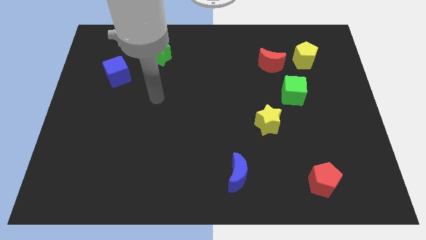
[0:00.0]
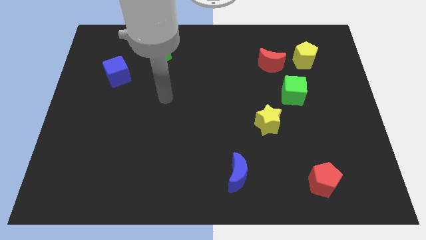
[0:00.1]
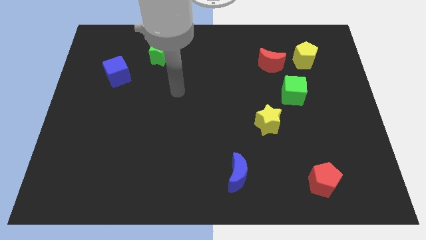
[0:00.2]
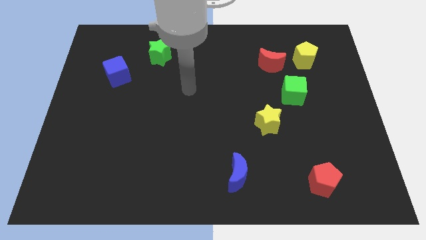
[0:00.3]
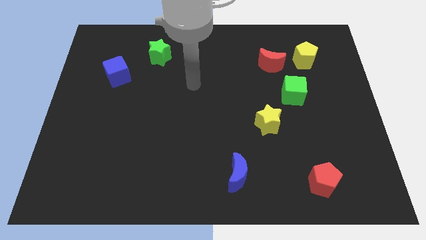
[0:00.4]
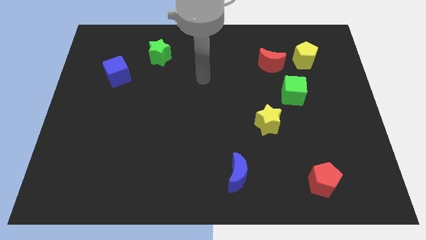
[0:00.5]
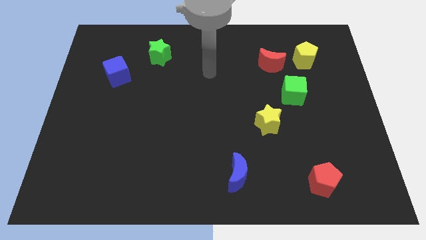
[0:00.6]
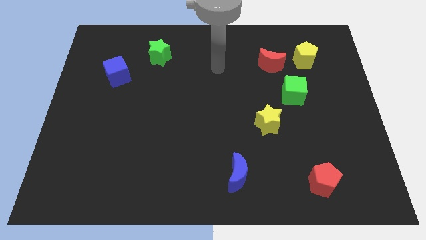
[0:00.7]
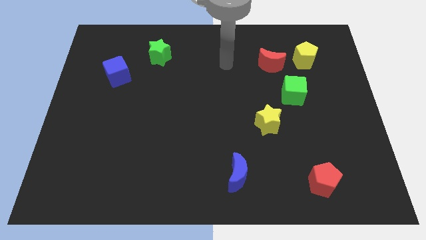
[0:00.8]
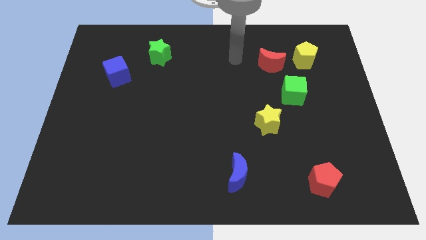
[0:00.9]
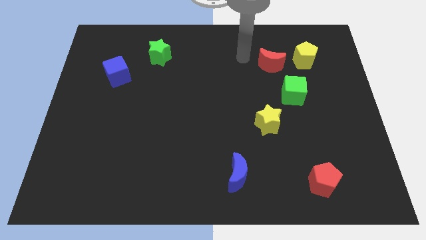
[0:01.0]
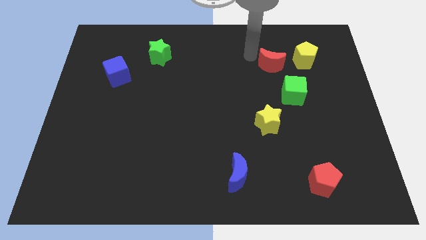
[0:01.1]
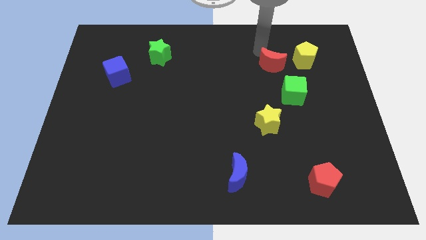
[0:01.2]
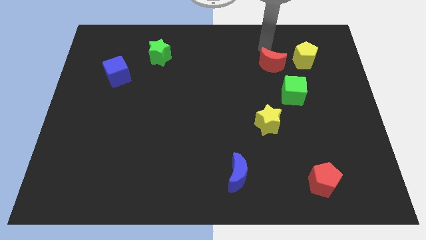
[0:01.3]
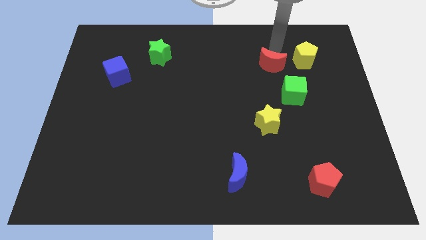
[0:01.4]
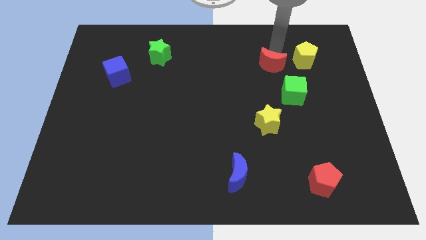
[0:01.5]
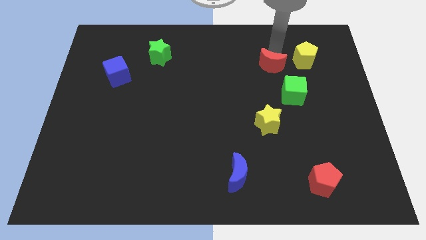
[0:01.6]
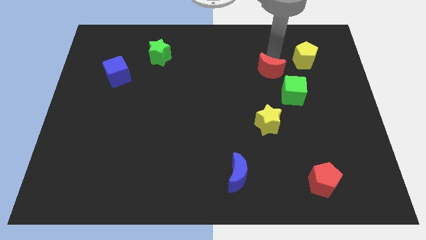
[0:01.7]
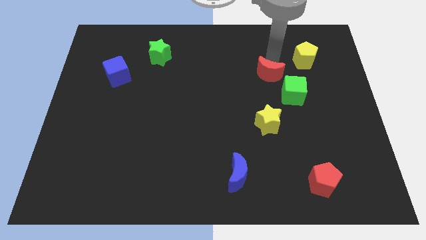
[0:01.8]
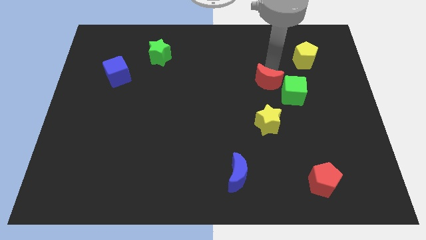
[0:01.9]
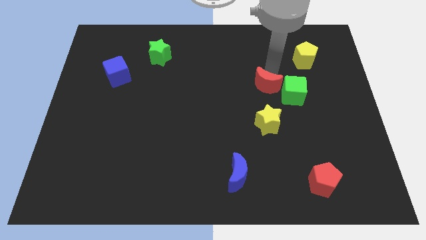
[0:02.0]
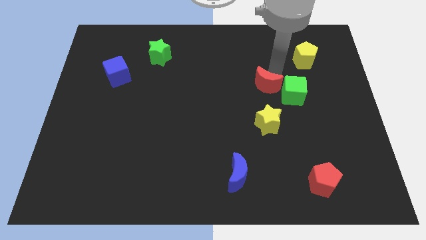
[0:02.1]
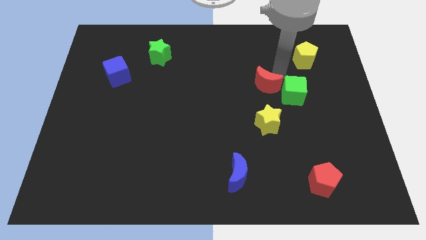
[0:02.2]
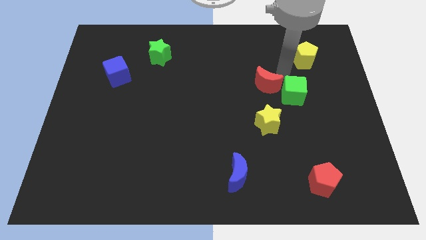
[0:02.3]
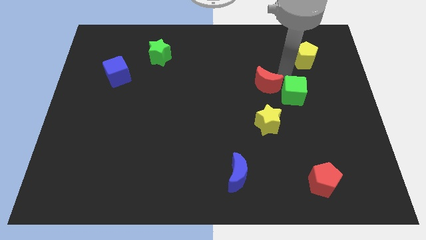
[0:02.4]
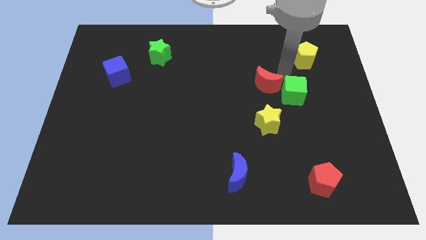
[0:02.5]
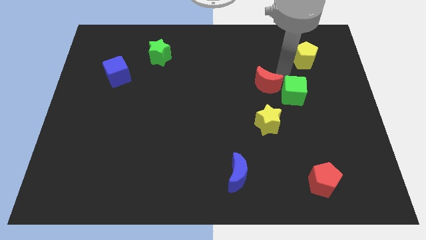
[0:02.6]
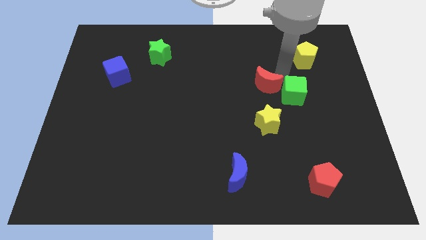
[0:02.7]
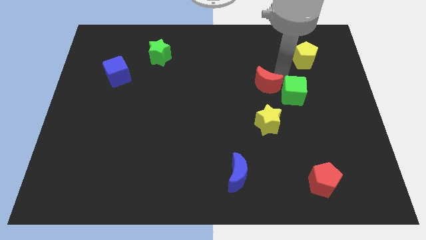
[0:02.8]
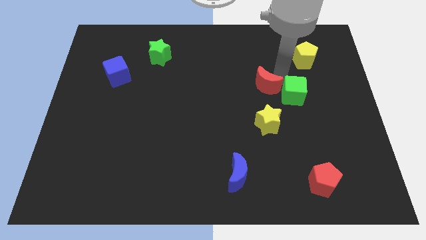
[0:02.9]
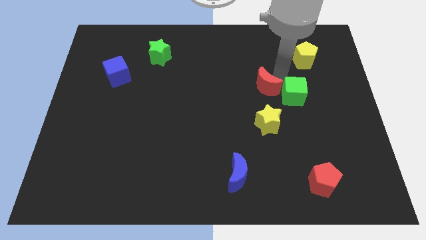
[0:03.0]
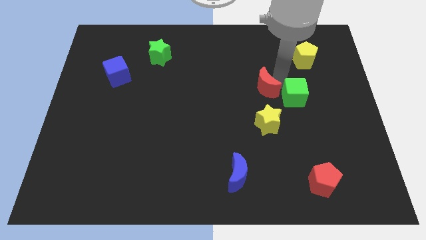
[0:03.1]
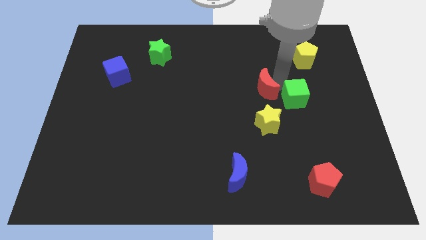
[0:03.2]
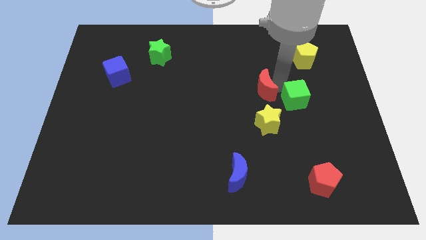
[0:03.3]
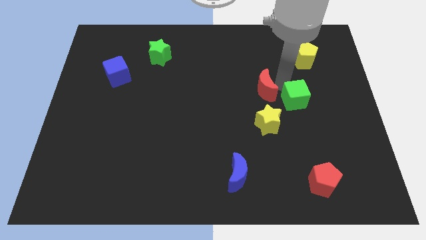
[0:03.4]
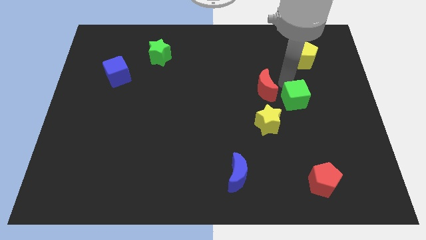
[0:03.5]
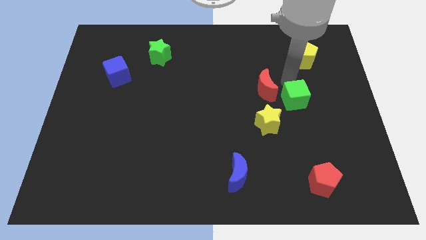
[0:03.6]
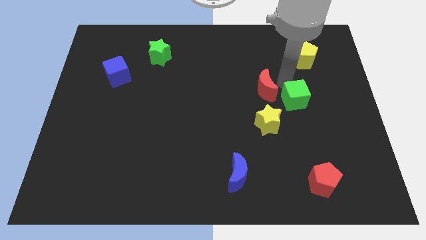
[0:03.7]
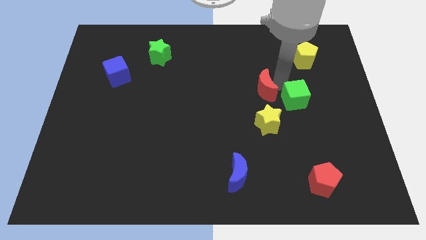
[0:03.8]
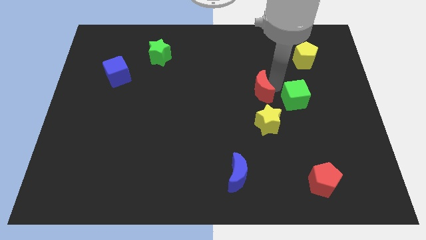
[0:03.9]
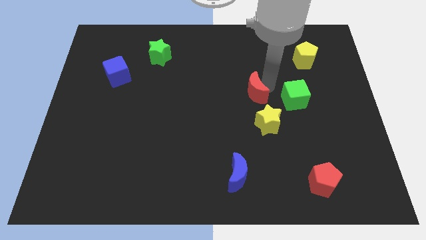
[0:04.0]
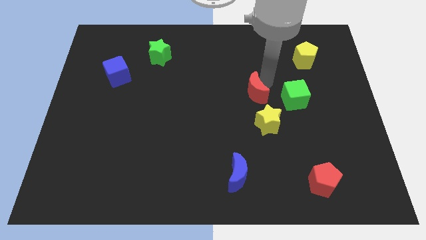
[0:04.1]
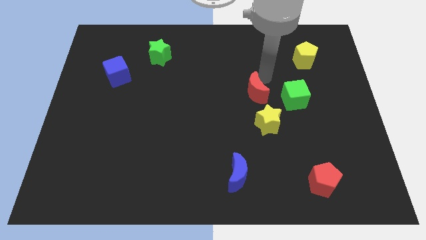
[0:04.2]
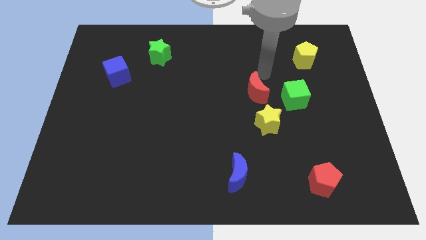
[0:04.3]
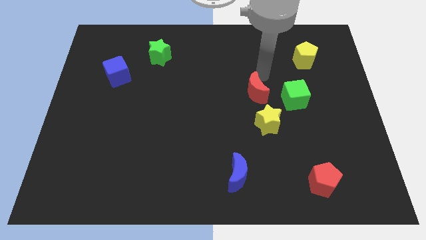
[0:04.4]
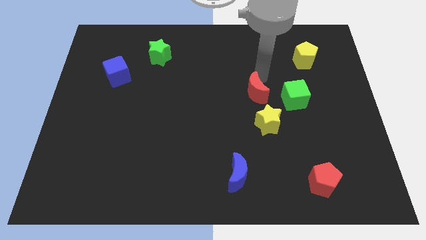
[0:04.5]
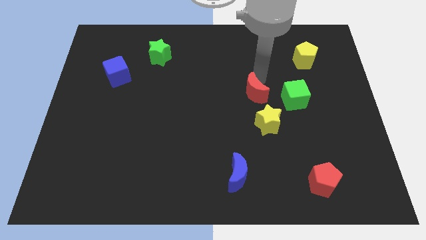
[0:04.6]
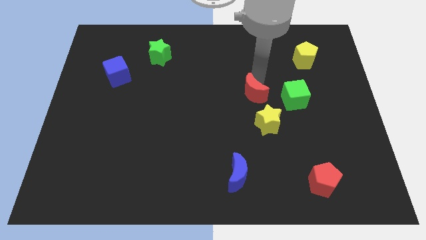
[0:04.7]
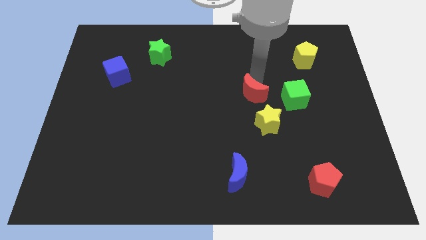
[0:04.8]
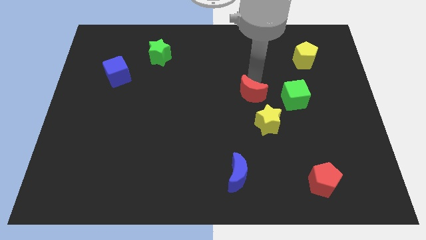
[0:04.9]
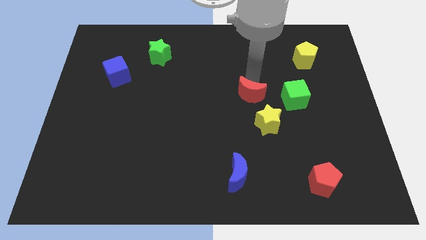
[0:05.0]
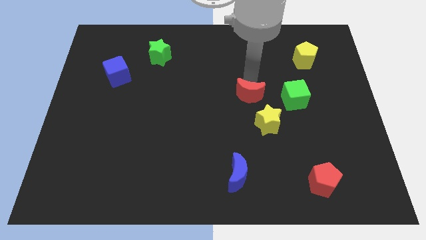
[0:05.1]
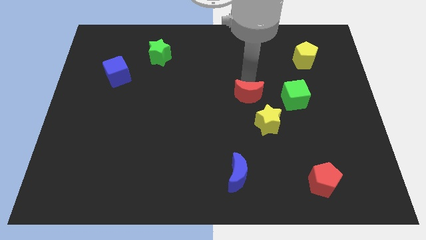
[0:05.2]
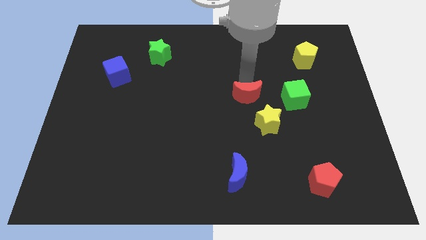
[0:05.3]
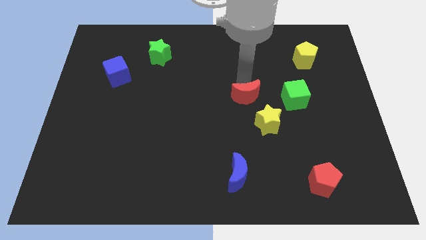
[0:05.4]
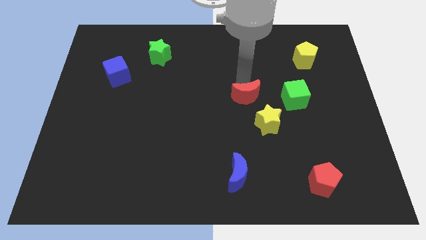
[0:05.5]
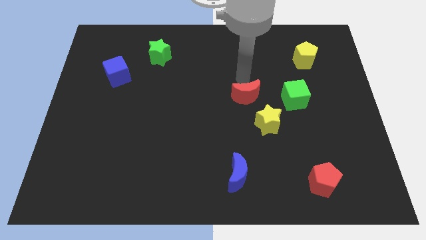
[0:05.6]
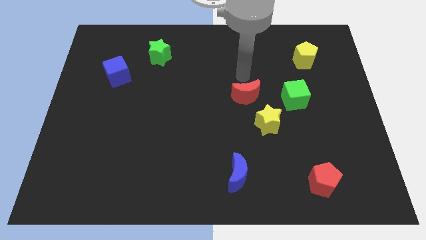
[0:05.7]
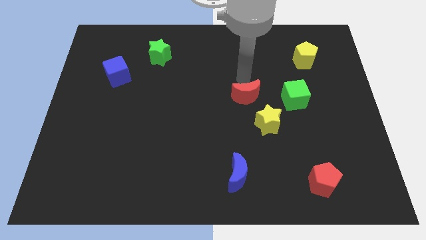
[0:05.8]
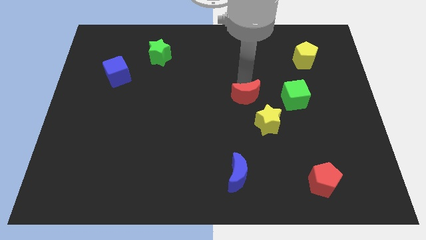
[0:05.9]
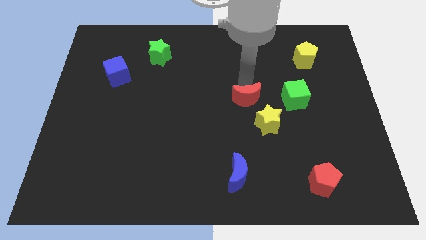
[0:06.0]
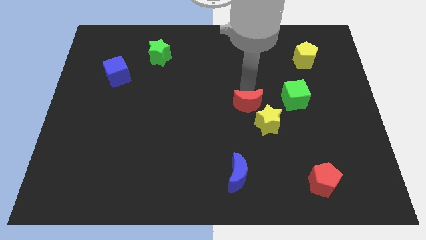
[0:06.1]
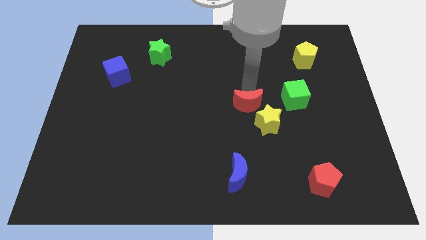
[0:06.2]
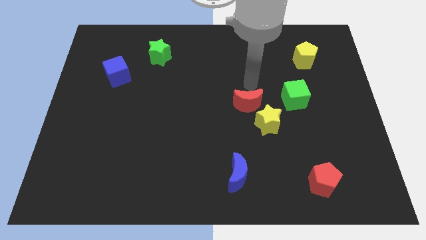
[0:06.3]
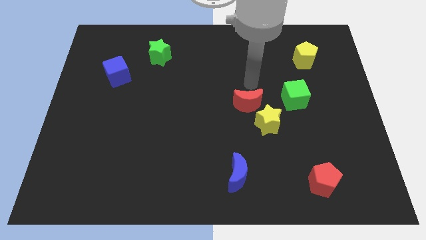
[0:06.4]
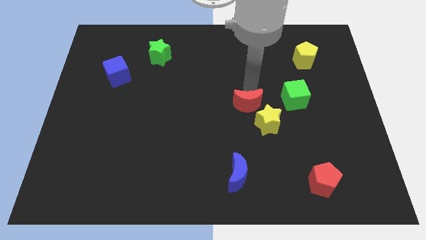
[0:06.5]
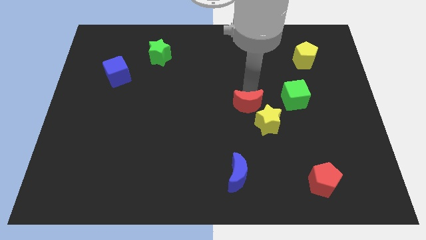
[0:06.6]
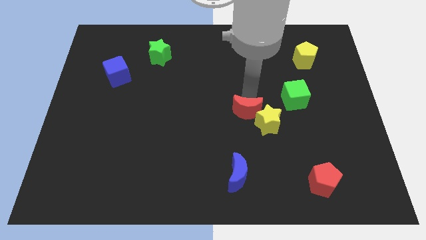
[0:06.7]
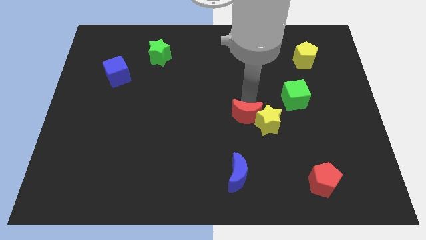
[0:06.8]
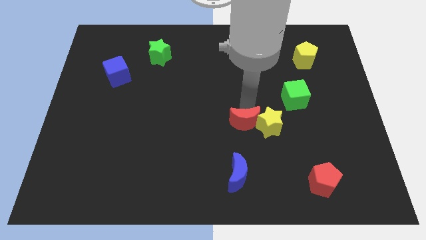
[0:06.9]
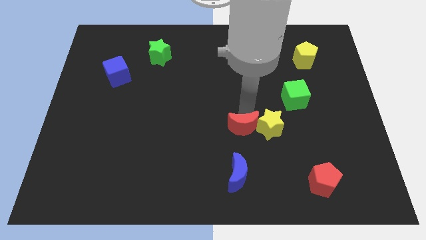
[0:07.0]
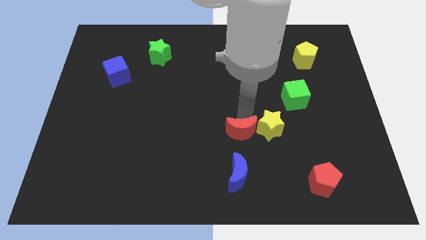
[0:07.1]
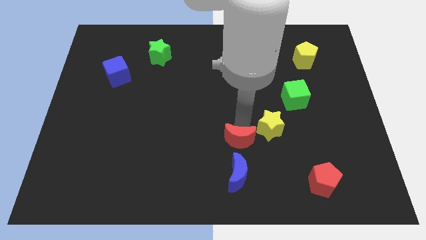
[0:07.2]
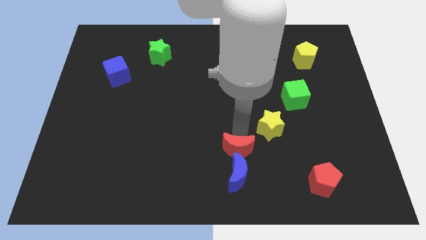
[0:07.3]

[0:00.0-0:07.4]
slide the red moon to the blue moon

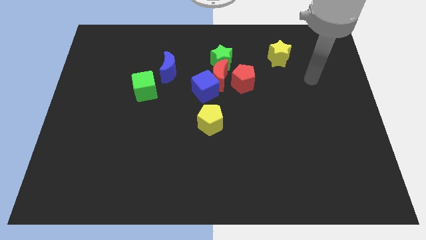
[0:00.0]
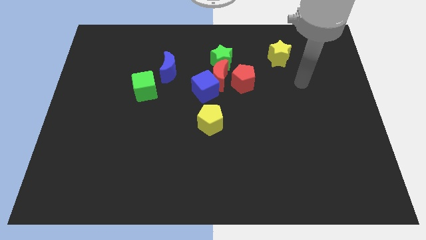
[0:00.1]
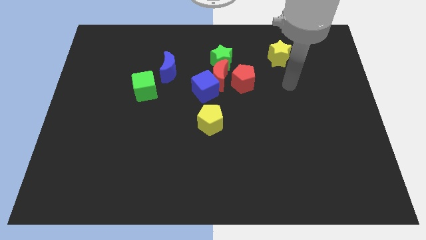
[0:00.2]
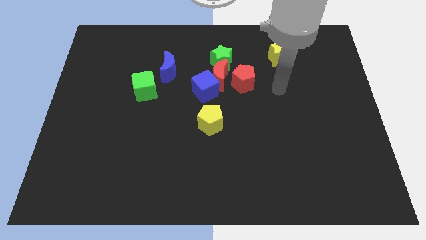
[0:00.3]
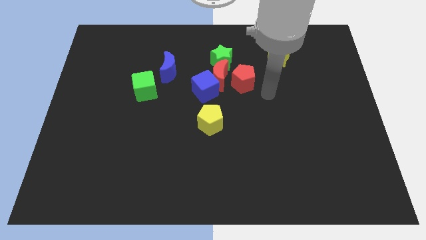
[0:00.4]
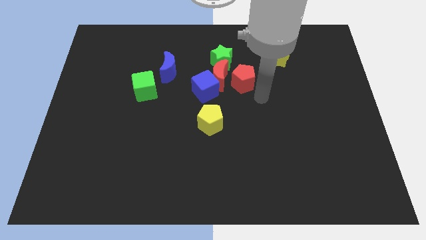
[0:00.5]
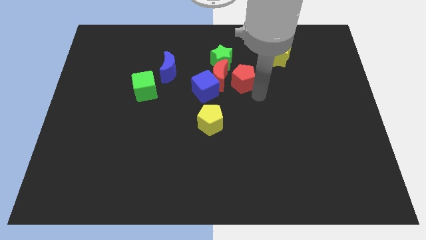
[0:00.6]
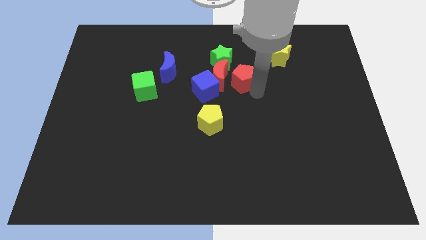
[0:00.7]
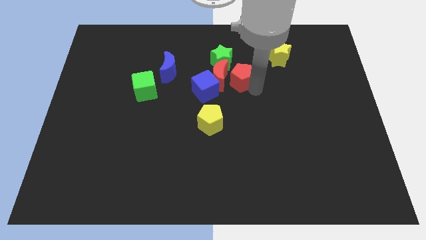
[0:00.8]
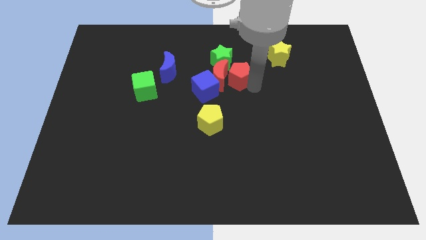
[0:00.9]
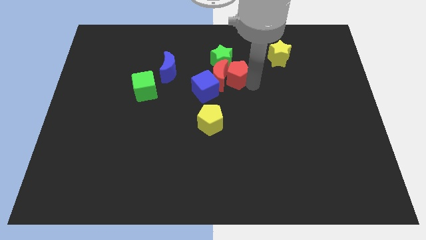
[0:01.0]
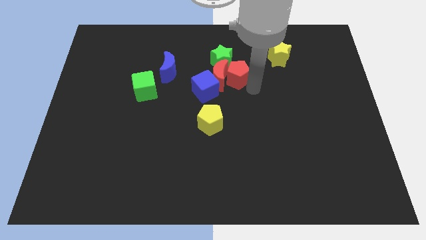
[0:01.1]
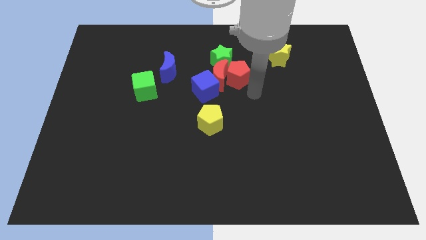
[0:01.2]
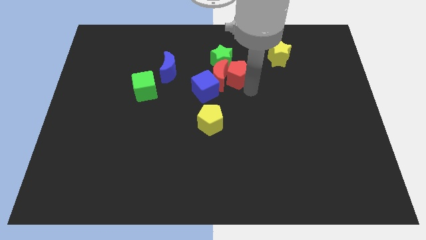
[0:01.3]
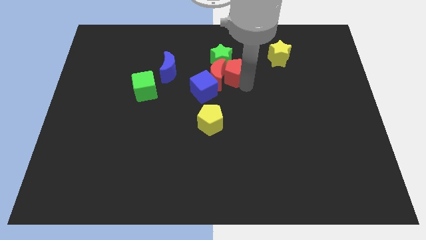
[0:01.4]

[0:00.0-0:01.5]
move the red pentagon close to the green star
